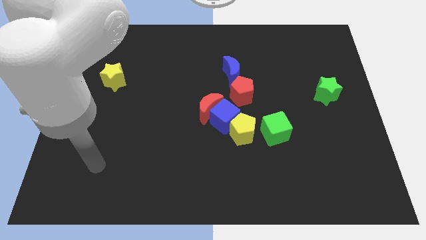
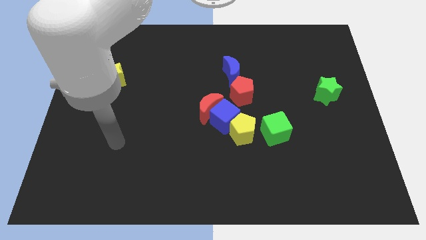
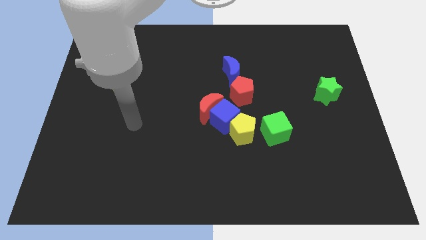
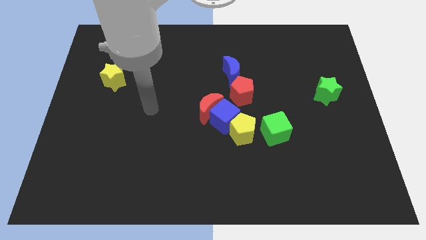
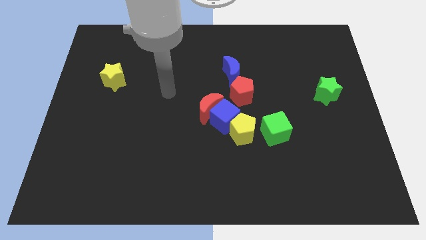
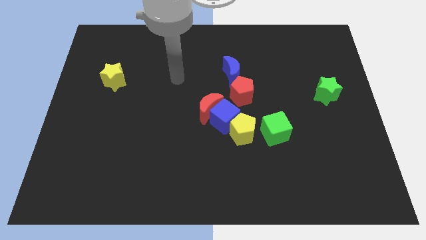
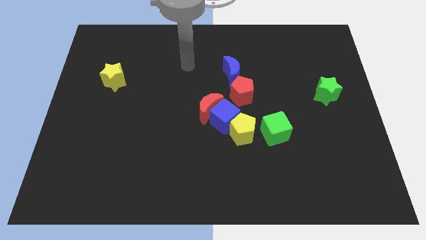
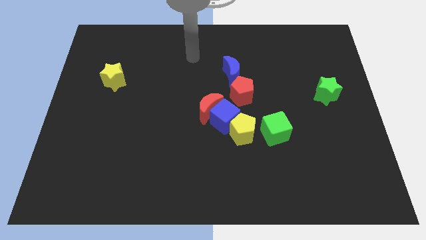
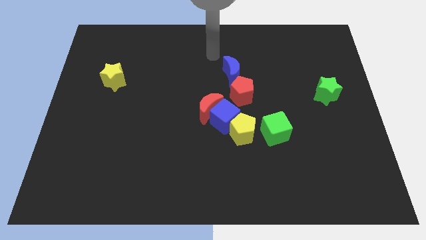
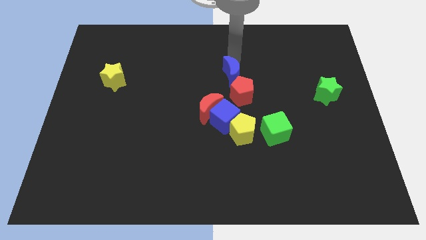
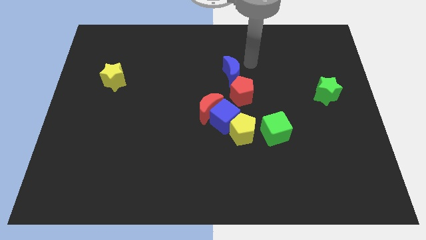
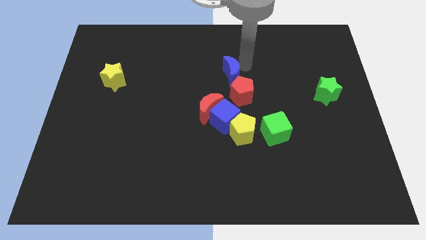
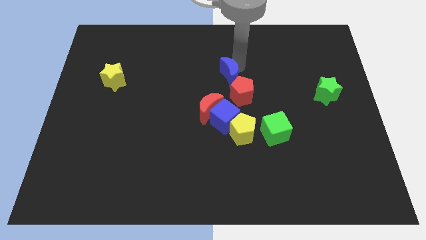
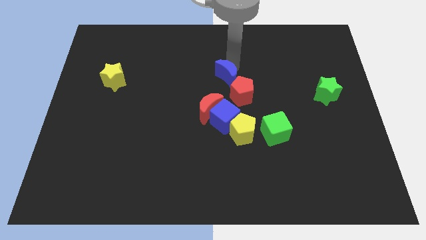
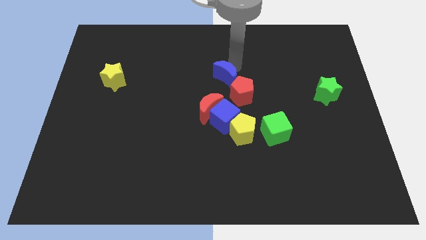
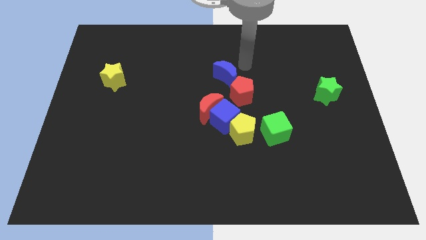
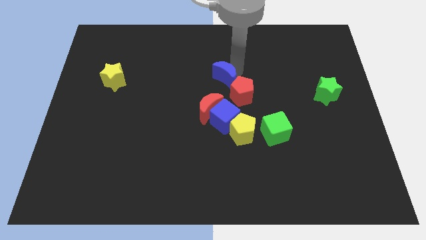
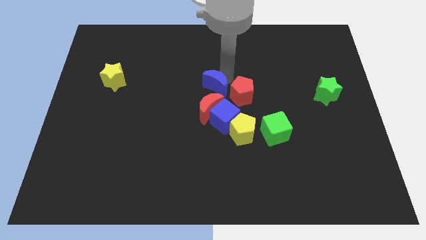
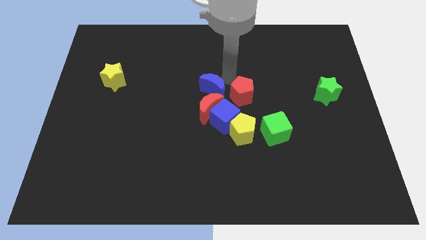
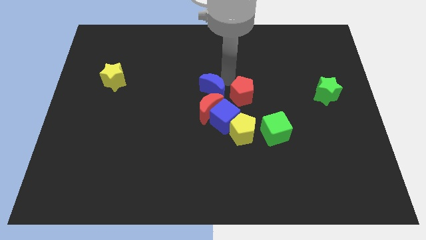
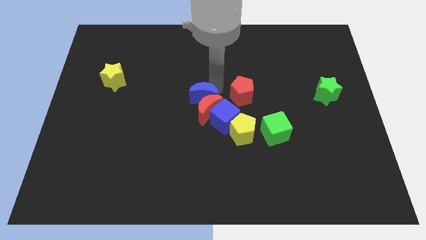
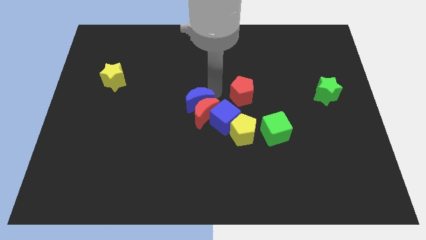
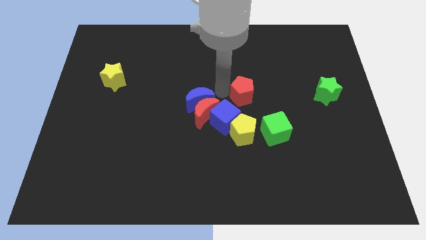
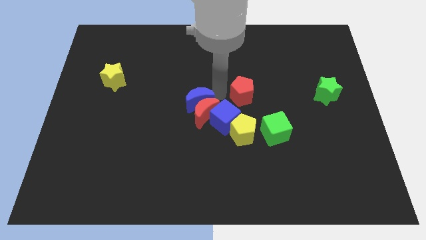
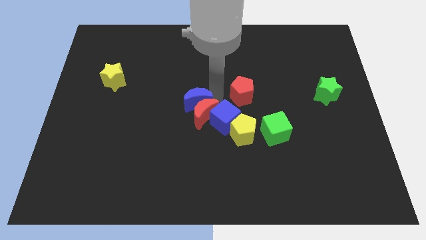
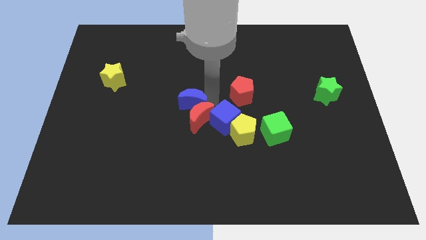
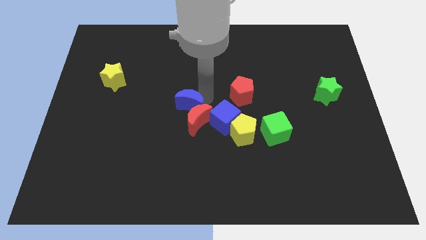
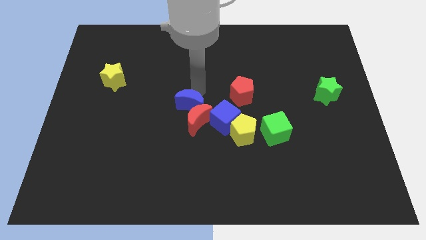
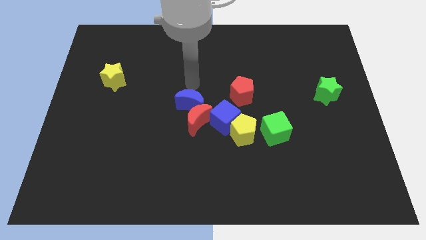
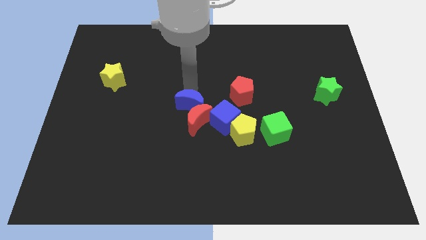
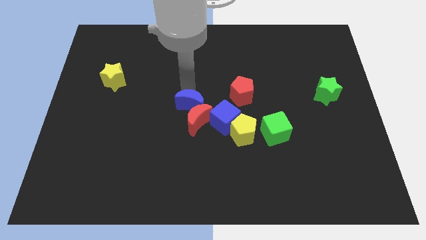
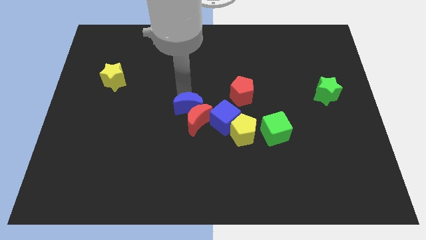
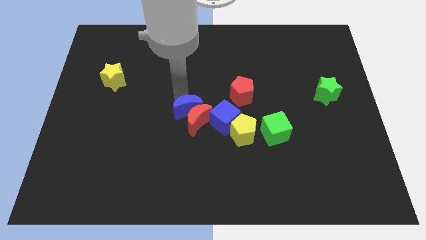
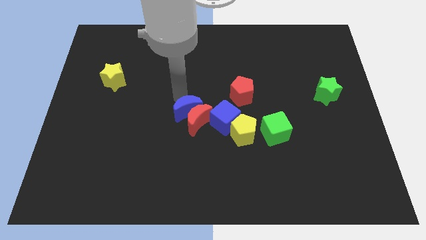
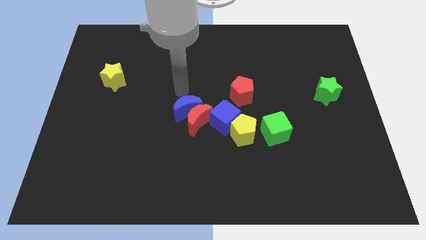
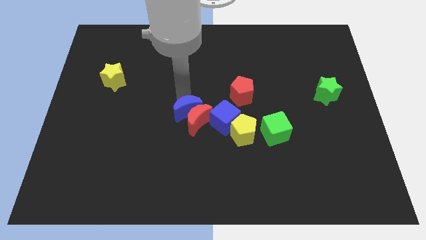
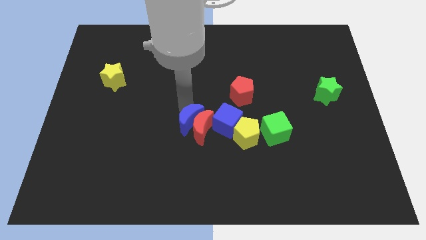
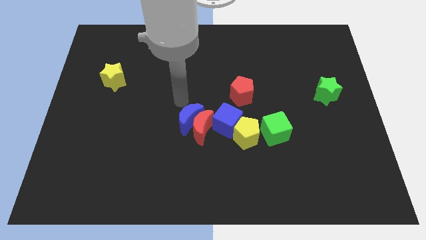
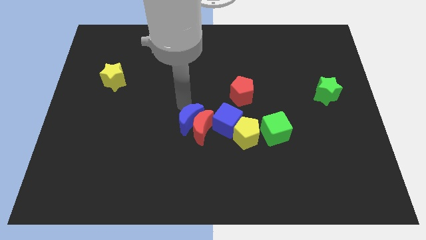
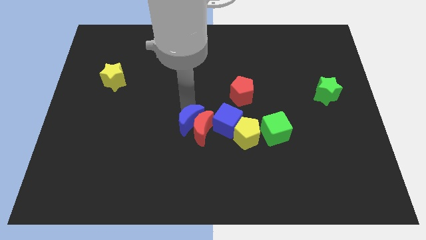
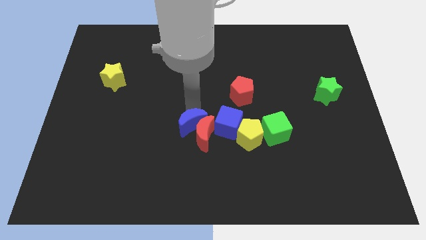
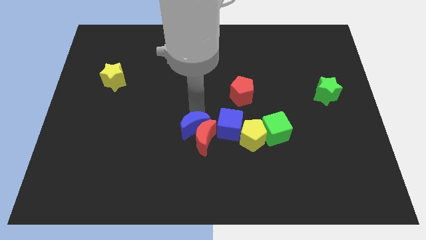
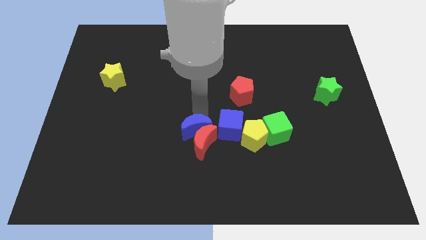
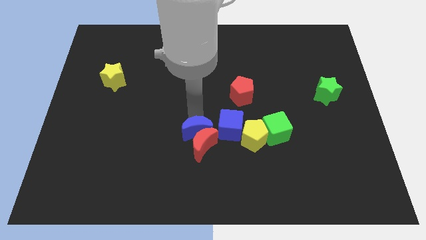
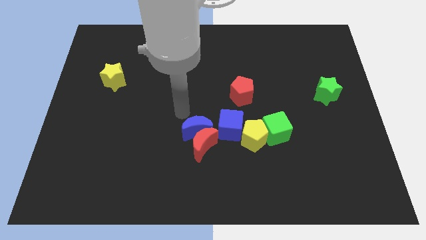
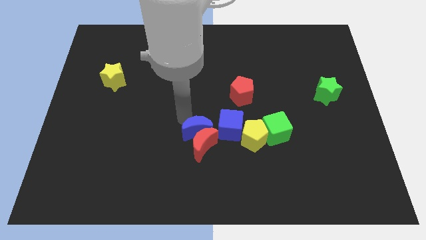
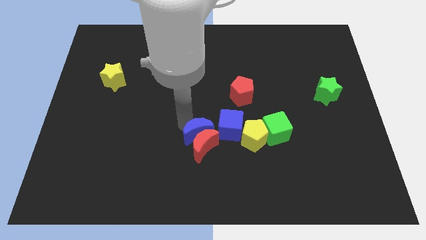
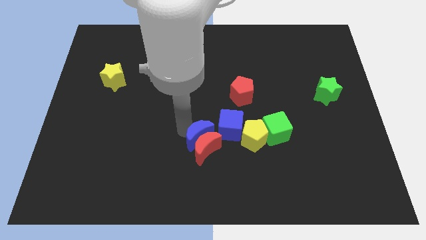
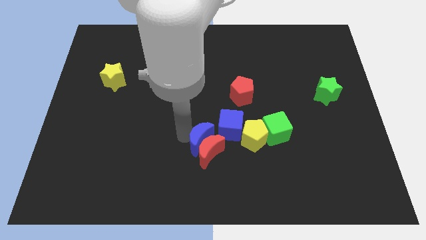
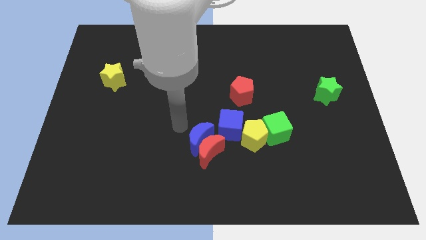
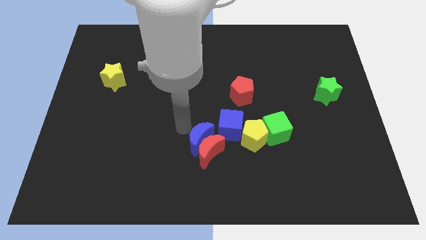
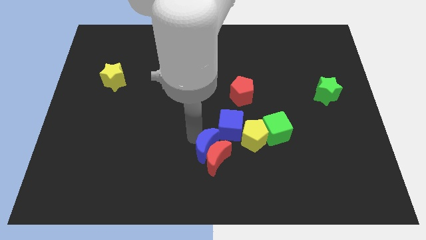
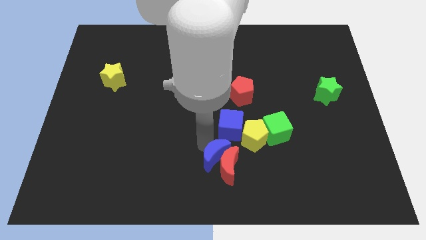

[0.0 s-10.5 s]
put the blue moon to the bottom

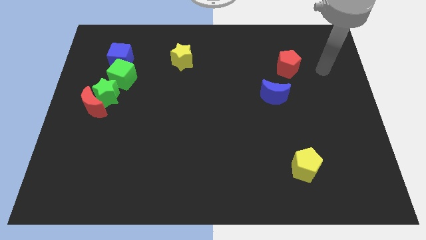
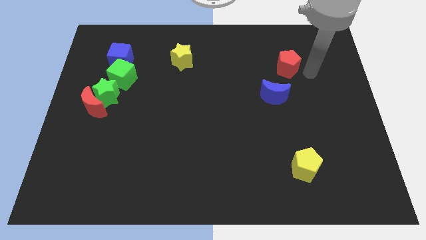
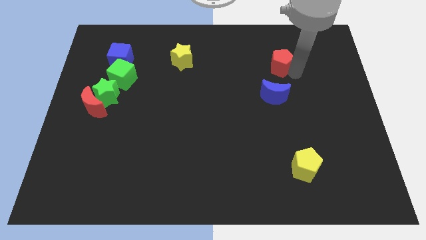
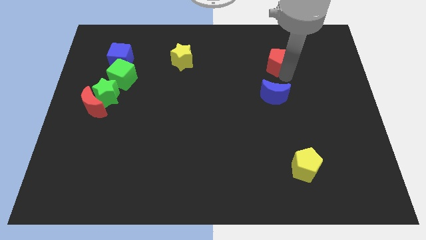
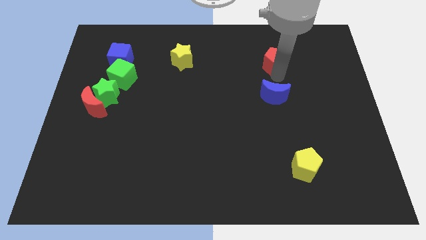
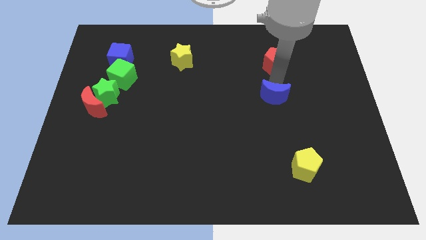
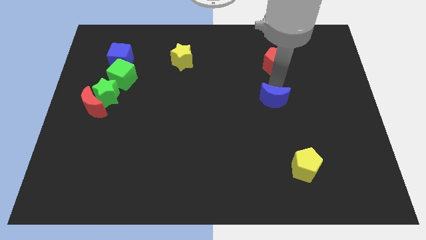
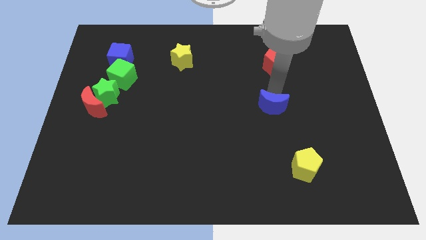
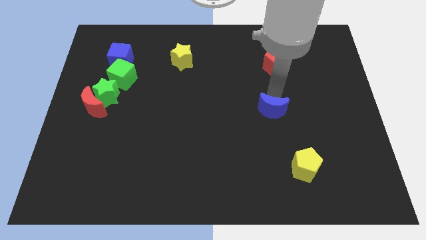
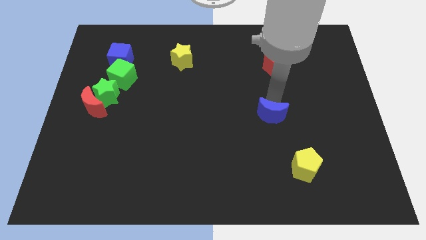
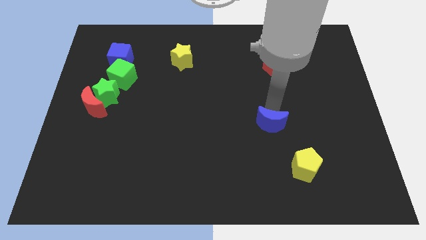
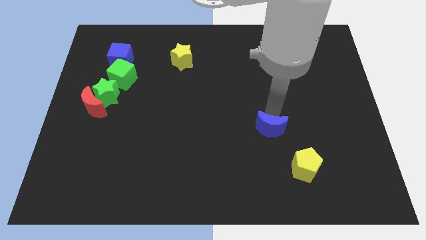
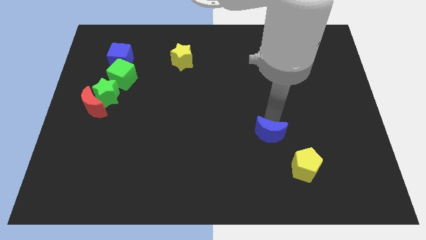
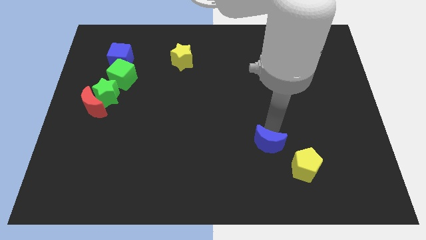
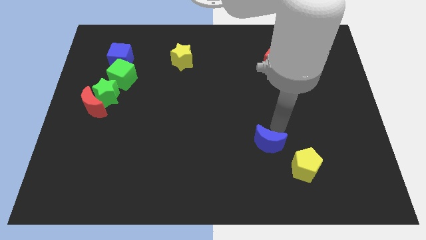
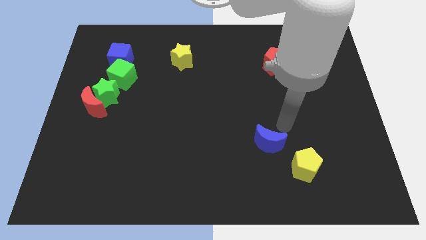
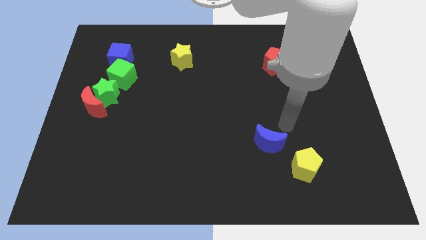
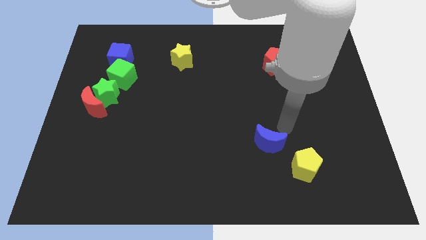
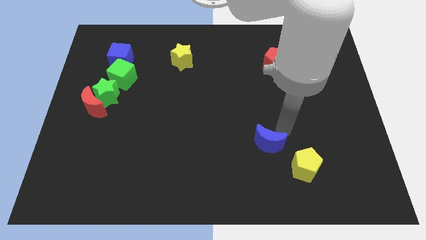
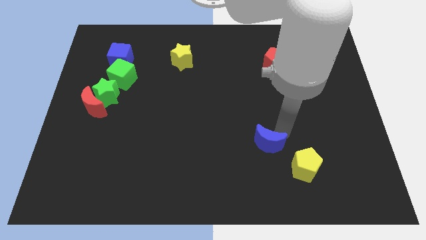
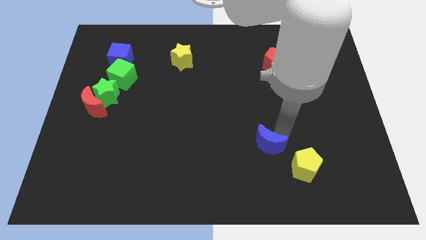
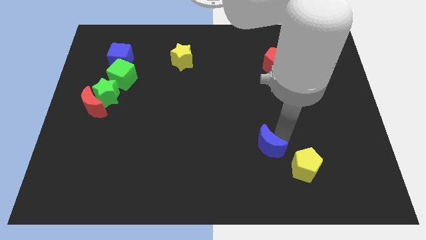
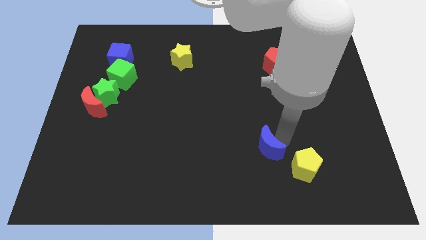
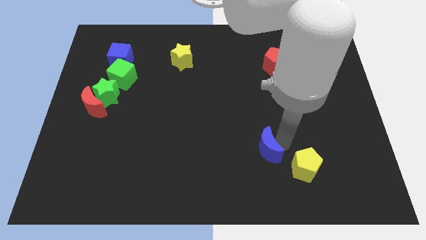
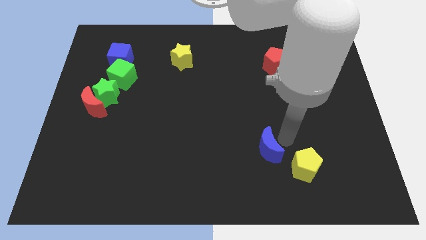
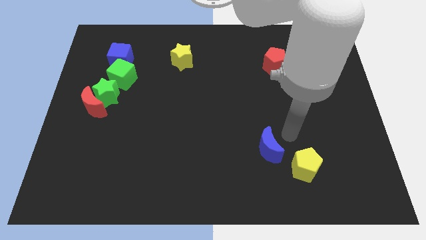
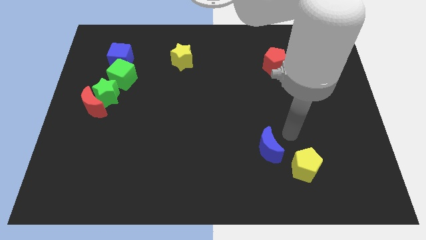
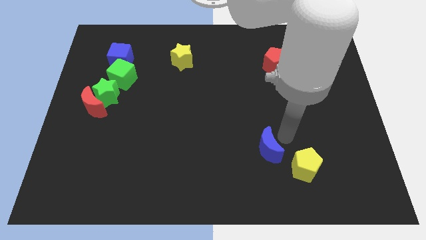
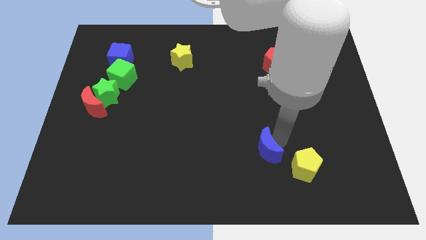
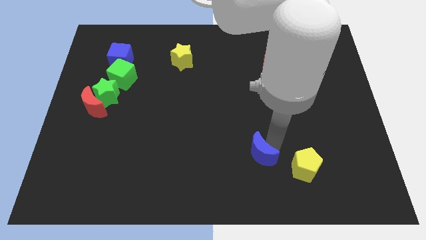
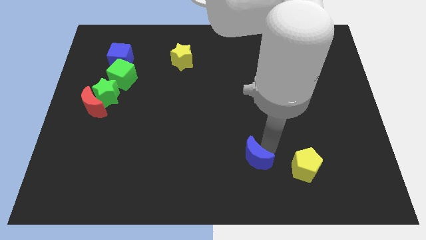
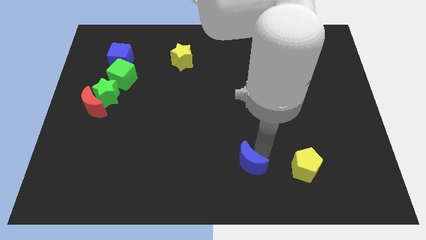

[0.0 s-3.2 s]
slide the blue moon to the bottom
